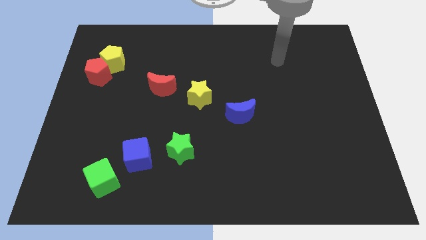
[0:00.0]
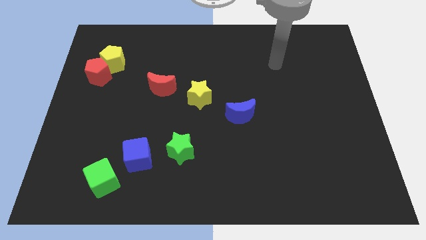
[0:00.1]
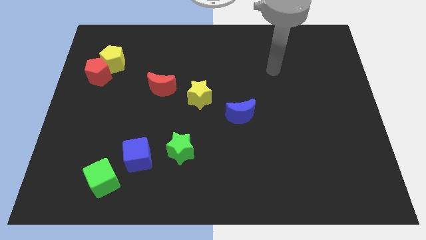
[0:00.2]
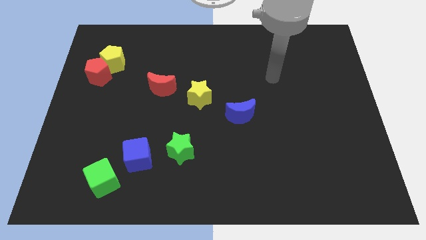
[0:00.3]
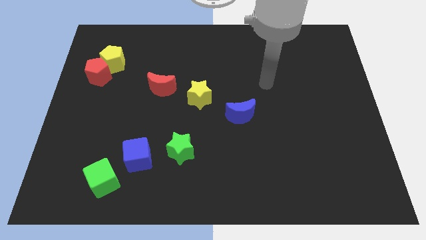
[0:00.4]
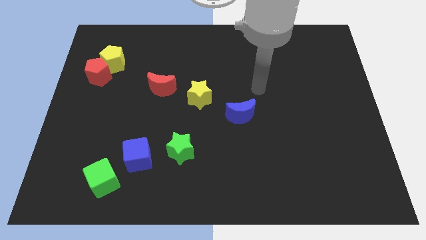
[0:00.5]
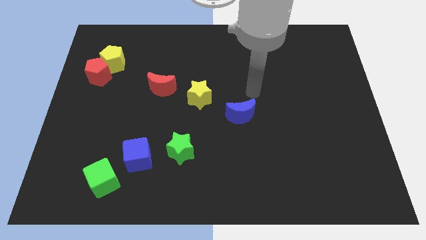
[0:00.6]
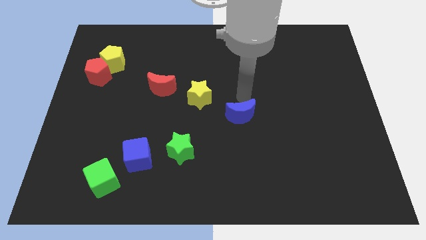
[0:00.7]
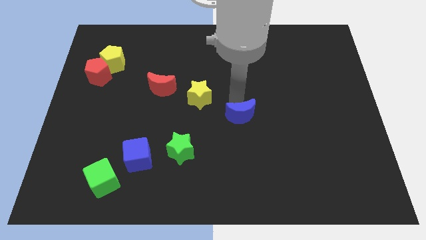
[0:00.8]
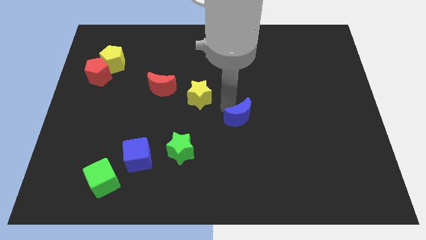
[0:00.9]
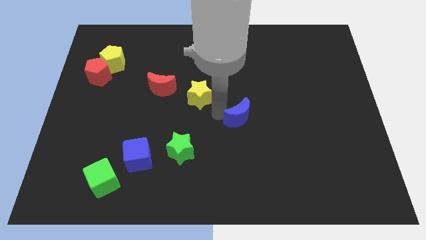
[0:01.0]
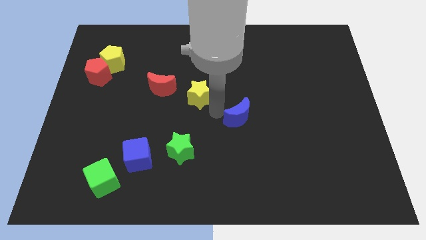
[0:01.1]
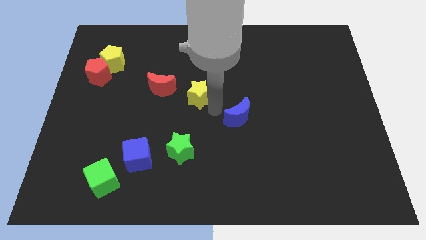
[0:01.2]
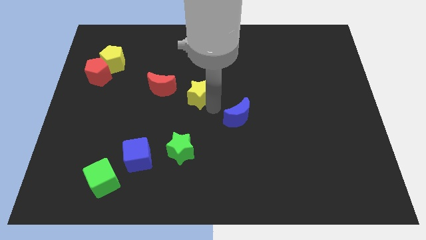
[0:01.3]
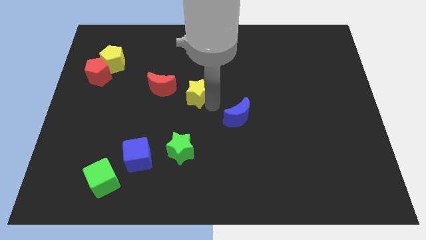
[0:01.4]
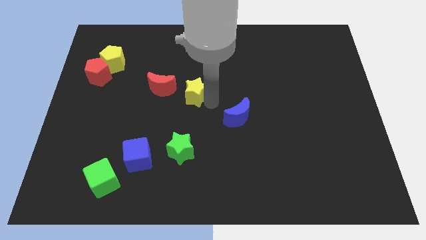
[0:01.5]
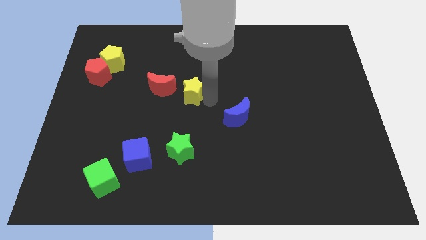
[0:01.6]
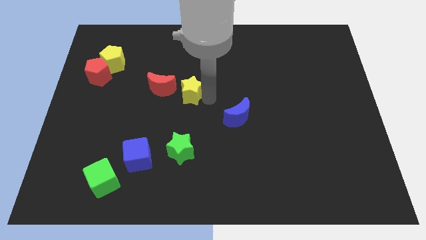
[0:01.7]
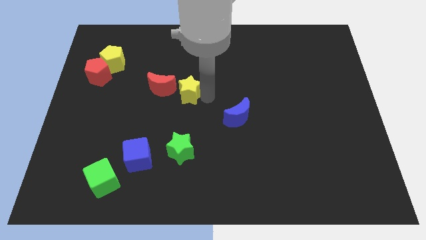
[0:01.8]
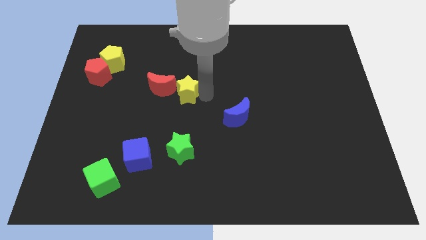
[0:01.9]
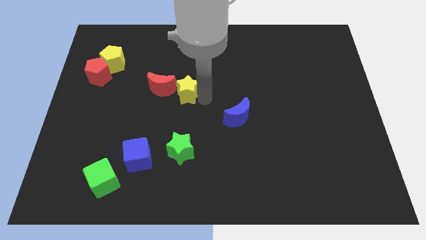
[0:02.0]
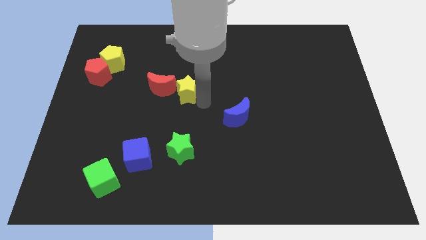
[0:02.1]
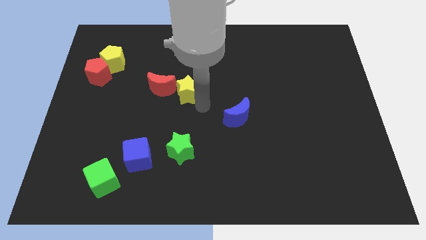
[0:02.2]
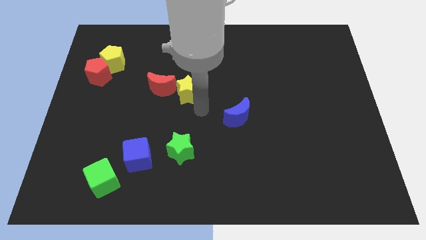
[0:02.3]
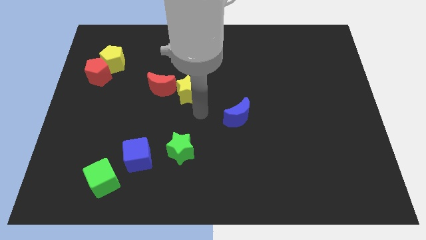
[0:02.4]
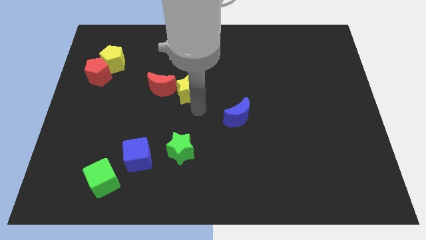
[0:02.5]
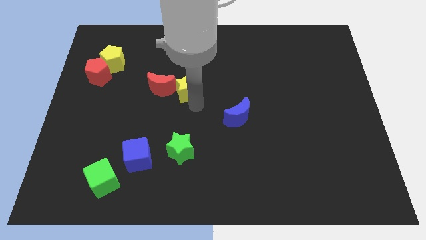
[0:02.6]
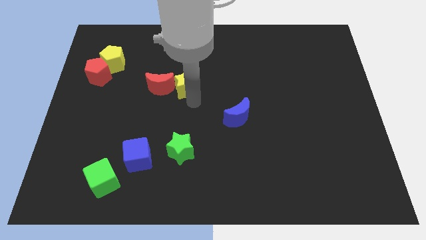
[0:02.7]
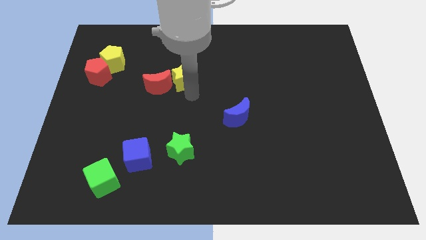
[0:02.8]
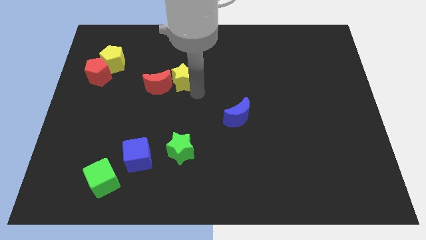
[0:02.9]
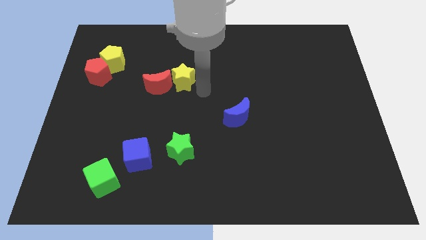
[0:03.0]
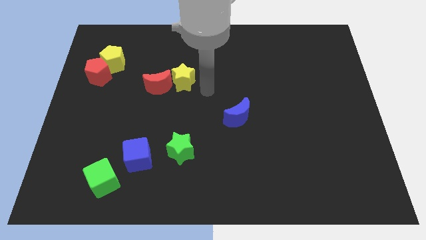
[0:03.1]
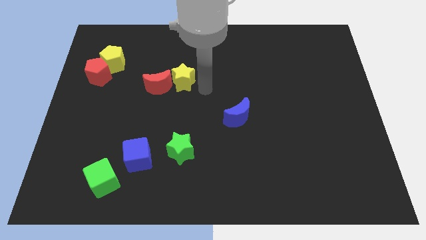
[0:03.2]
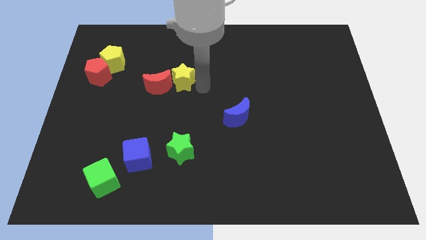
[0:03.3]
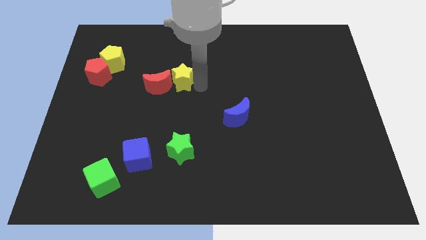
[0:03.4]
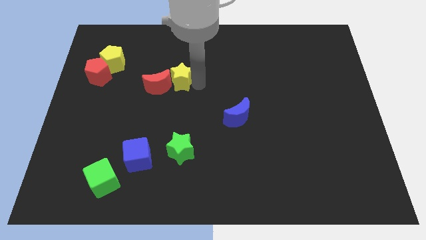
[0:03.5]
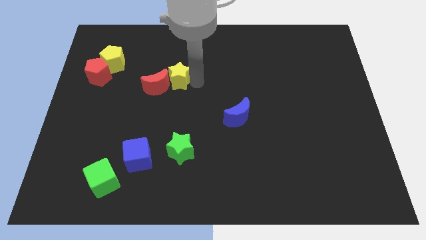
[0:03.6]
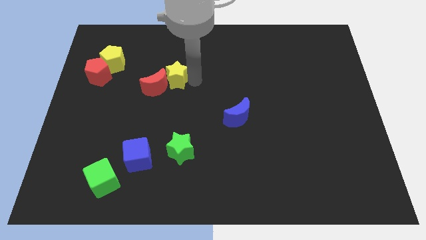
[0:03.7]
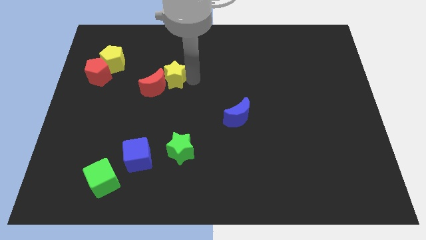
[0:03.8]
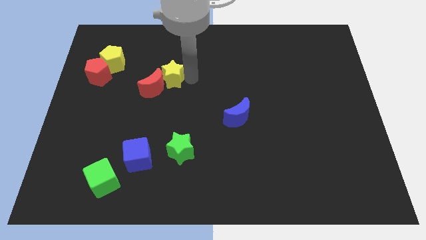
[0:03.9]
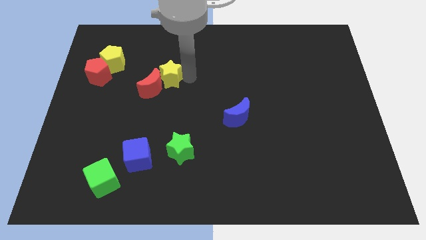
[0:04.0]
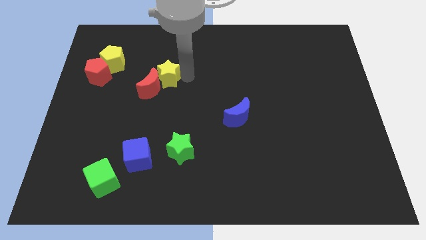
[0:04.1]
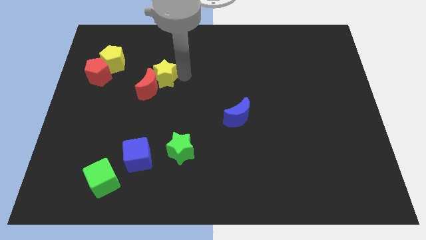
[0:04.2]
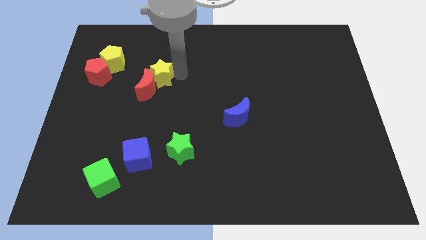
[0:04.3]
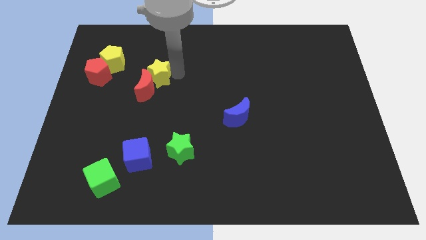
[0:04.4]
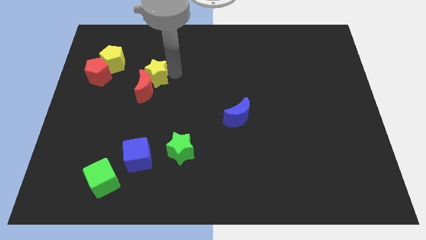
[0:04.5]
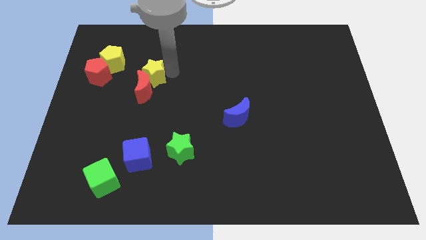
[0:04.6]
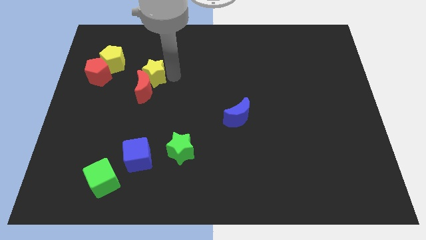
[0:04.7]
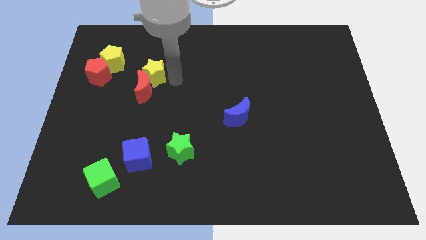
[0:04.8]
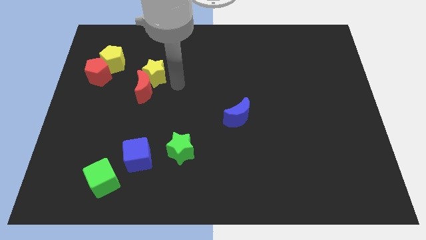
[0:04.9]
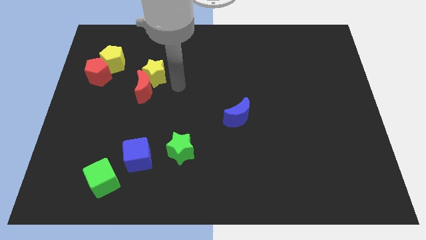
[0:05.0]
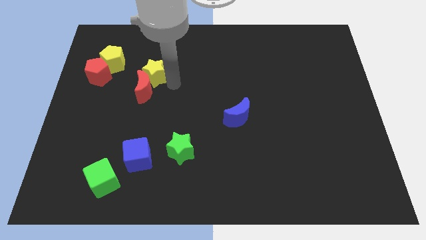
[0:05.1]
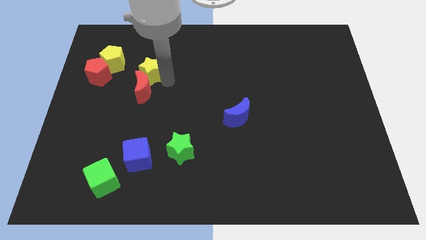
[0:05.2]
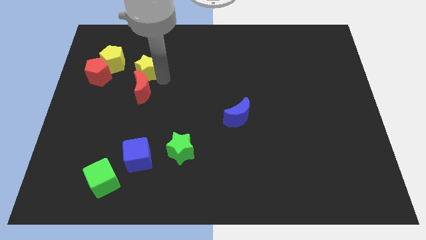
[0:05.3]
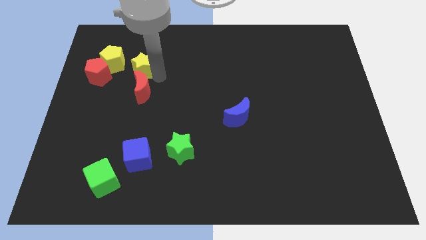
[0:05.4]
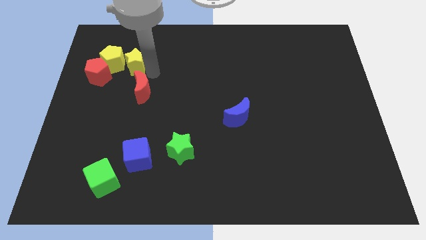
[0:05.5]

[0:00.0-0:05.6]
slide the yellow star next to the yellow pentagon

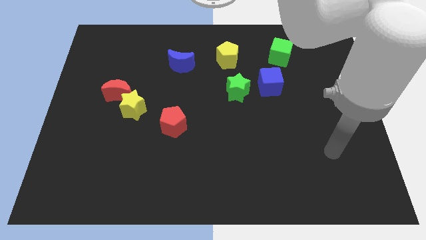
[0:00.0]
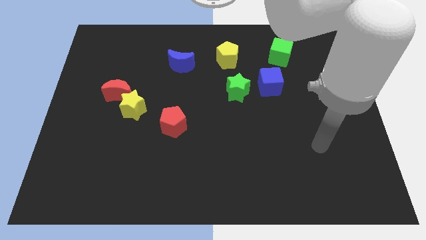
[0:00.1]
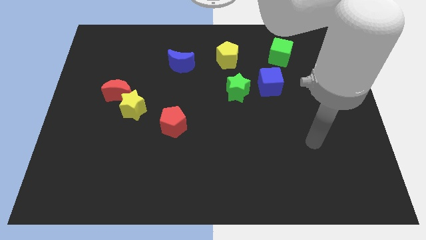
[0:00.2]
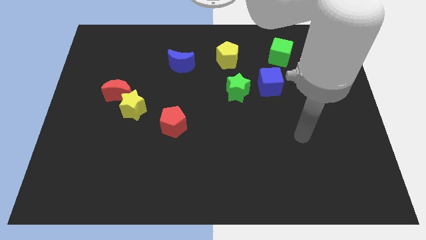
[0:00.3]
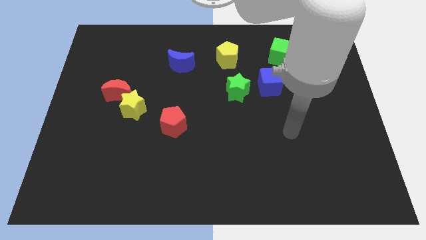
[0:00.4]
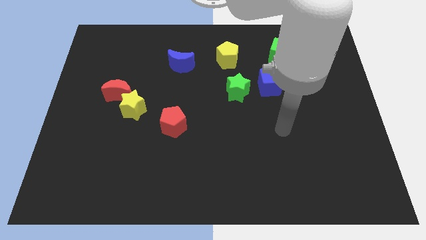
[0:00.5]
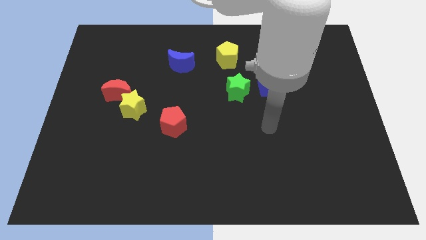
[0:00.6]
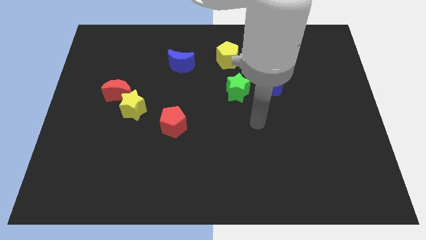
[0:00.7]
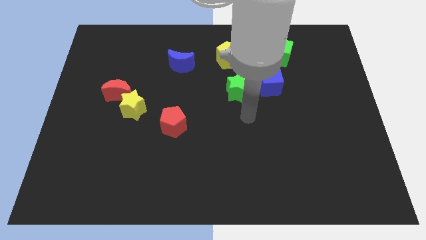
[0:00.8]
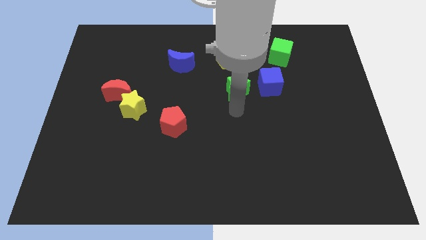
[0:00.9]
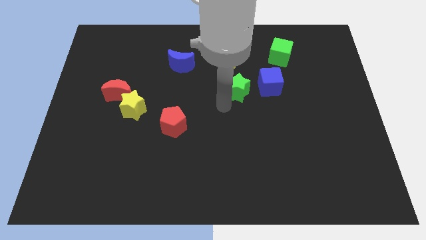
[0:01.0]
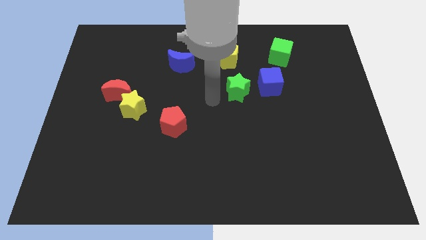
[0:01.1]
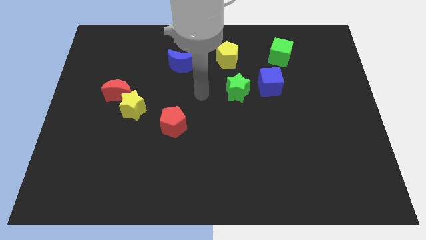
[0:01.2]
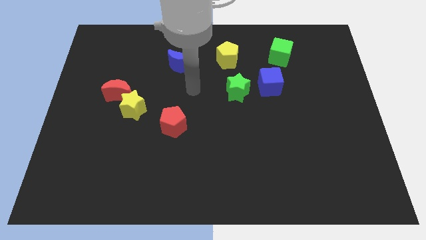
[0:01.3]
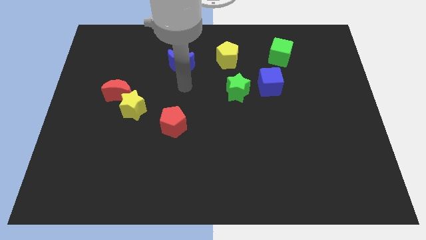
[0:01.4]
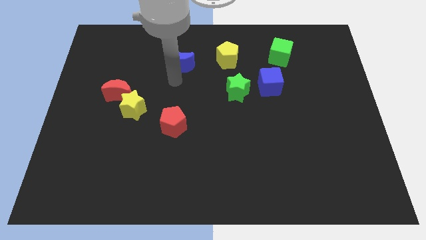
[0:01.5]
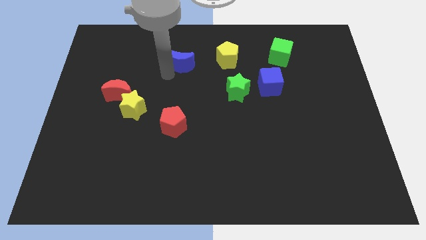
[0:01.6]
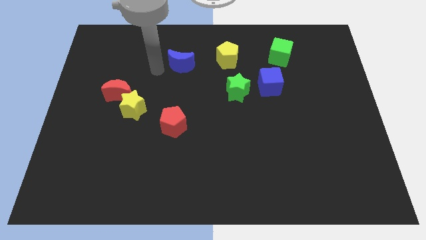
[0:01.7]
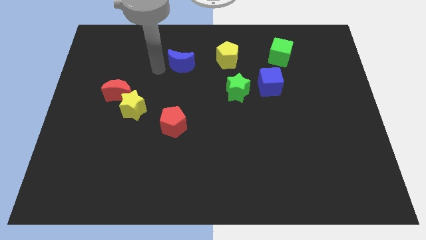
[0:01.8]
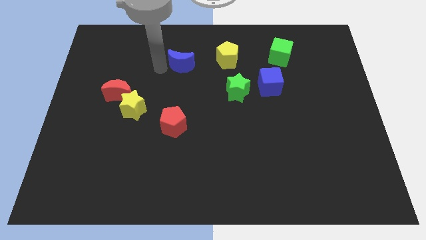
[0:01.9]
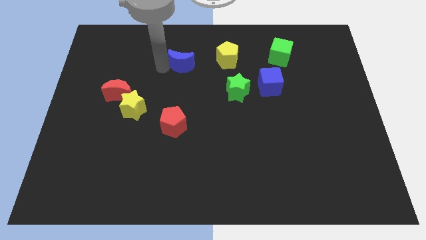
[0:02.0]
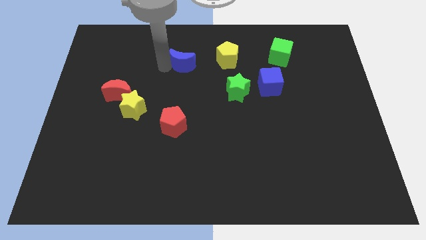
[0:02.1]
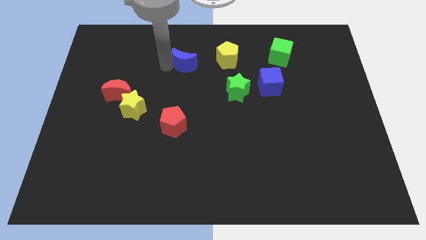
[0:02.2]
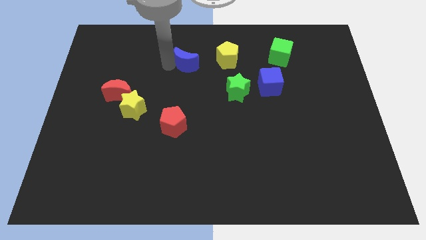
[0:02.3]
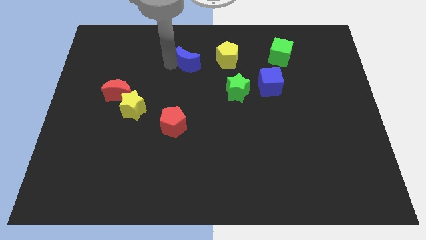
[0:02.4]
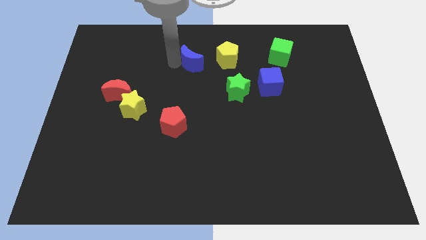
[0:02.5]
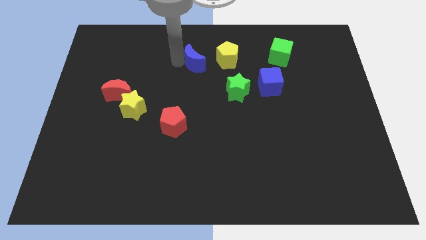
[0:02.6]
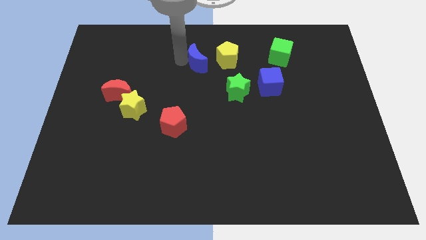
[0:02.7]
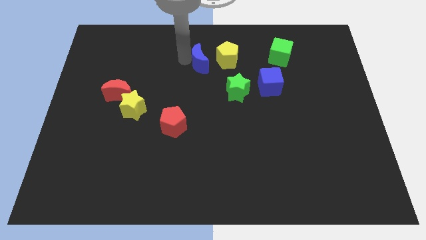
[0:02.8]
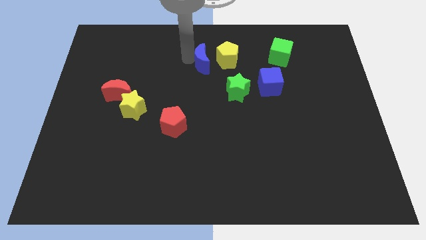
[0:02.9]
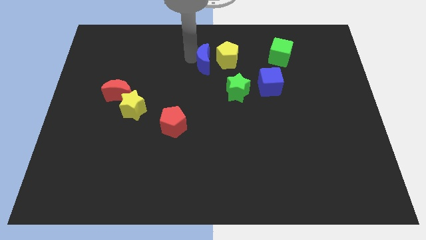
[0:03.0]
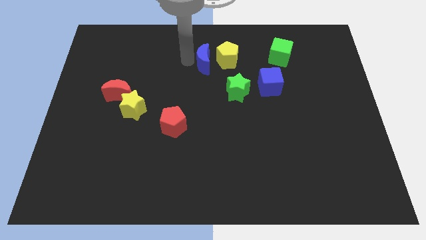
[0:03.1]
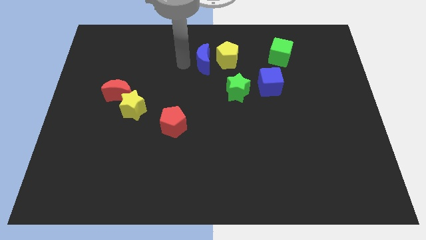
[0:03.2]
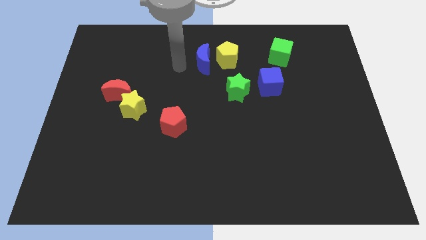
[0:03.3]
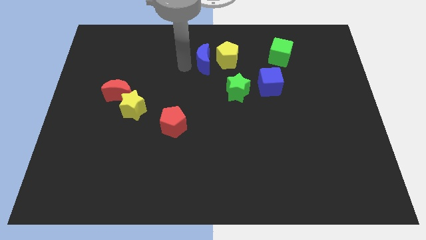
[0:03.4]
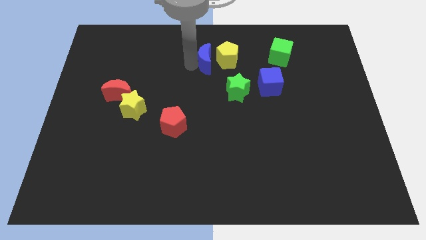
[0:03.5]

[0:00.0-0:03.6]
push the blue moon towards the yellow pentagon
